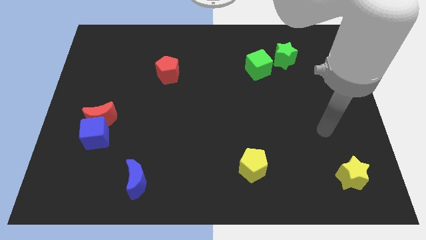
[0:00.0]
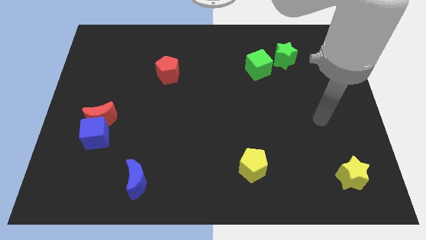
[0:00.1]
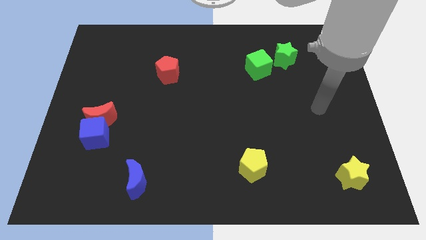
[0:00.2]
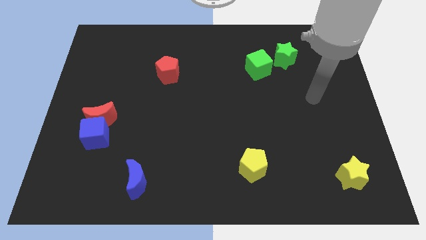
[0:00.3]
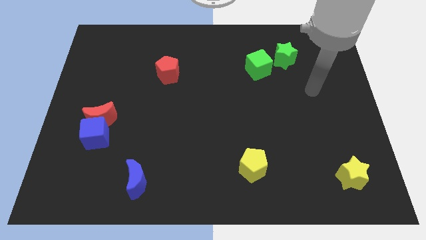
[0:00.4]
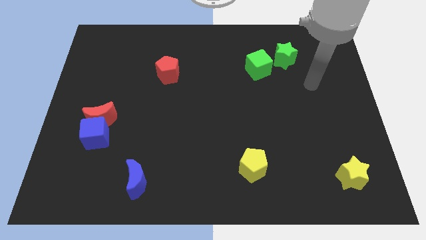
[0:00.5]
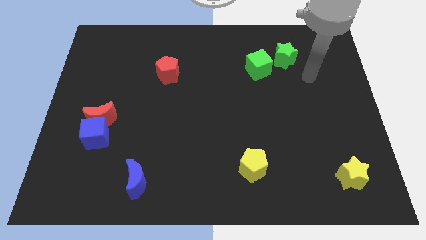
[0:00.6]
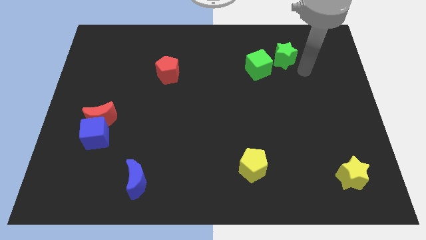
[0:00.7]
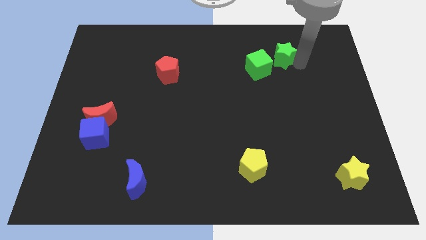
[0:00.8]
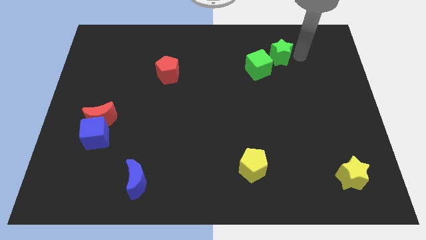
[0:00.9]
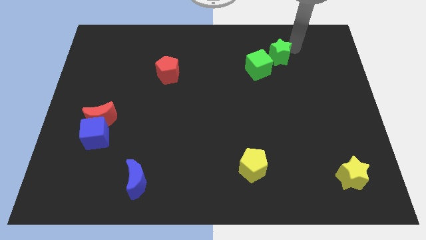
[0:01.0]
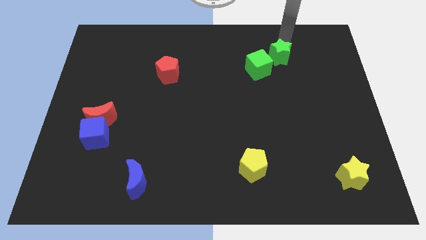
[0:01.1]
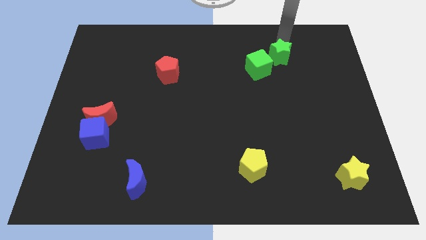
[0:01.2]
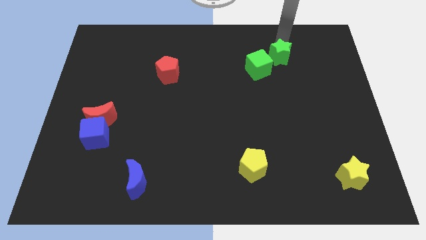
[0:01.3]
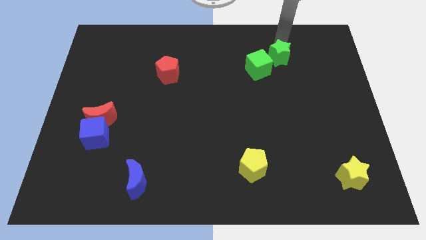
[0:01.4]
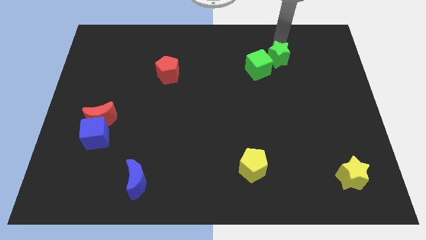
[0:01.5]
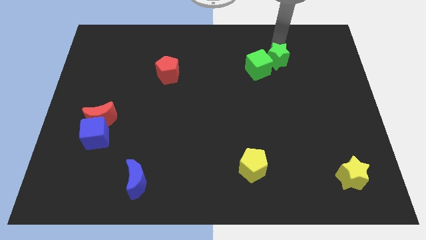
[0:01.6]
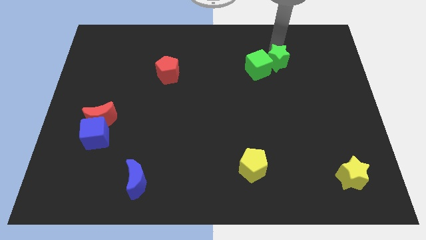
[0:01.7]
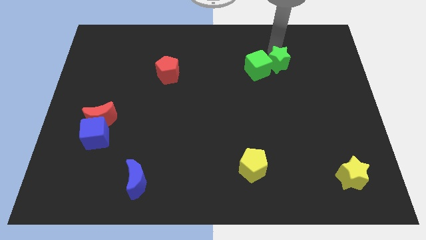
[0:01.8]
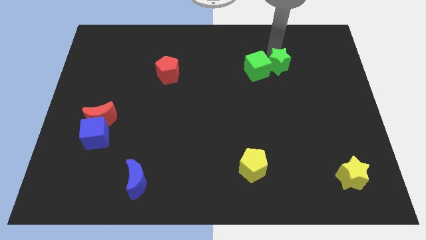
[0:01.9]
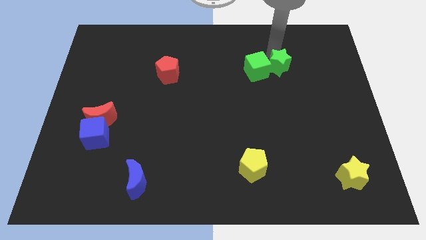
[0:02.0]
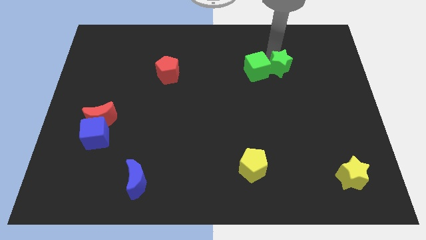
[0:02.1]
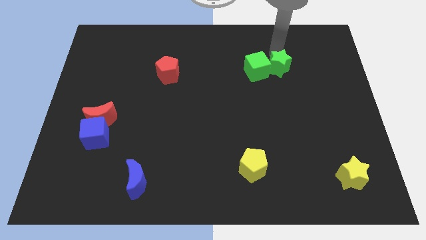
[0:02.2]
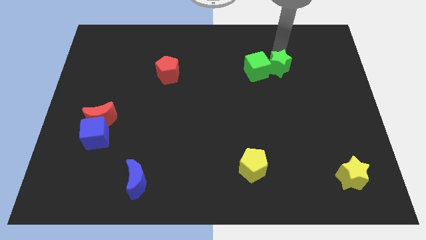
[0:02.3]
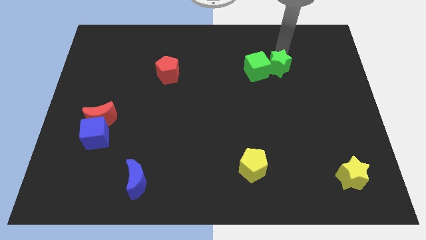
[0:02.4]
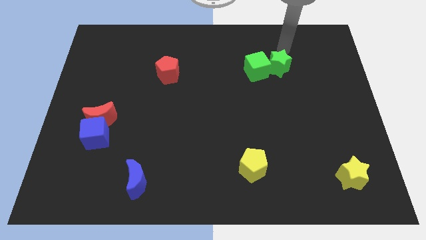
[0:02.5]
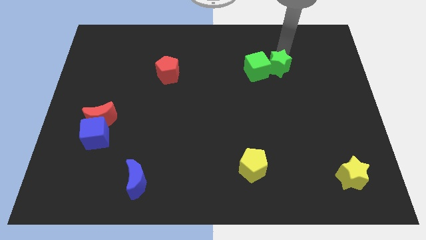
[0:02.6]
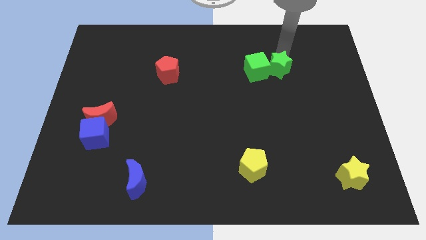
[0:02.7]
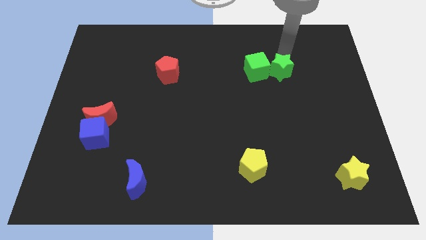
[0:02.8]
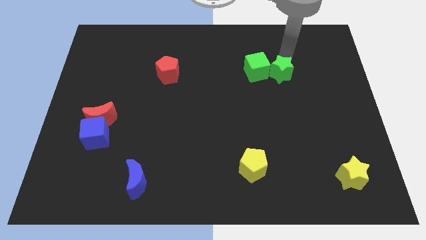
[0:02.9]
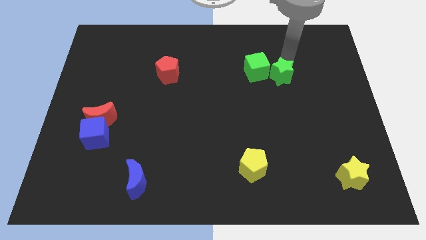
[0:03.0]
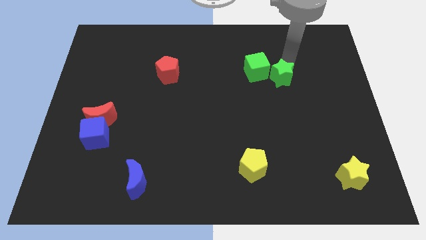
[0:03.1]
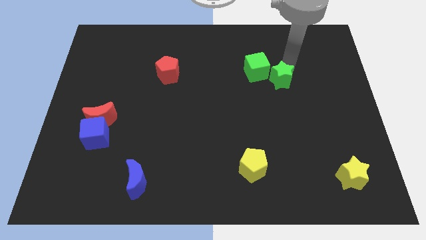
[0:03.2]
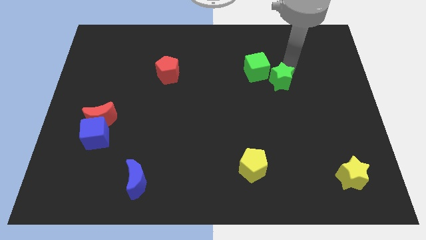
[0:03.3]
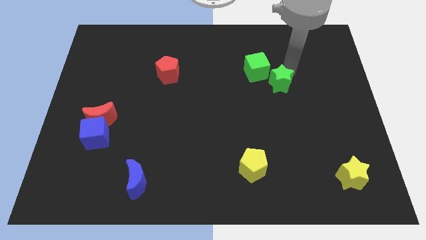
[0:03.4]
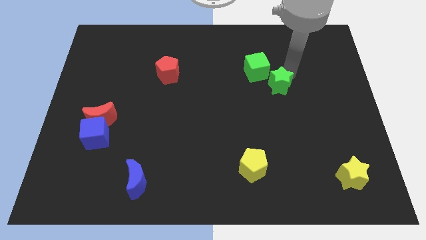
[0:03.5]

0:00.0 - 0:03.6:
push the green star a little diagonally downwards and left

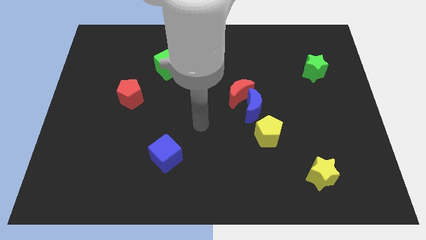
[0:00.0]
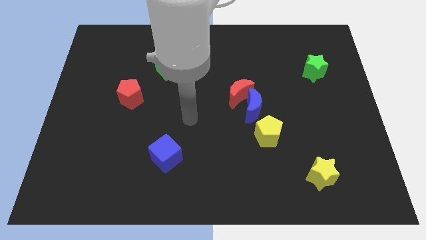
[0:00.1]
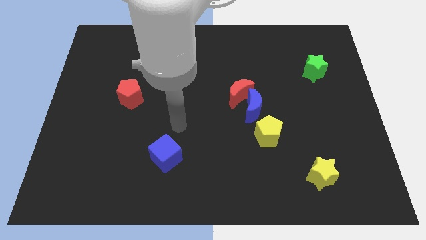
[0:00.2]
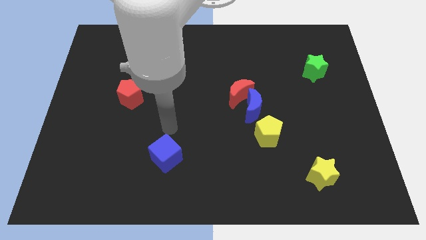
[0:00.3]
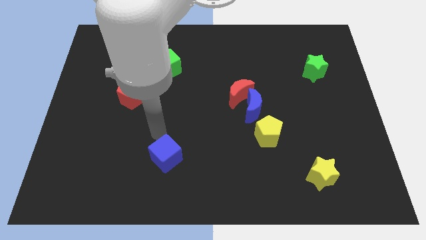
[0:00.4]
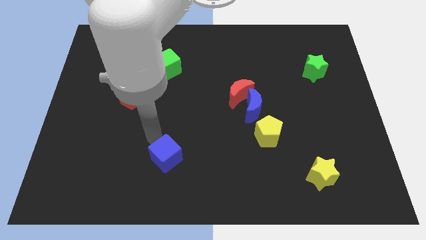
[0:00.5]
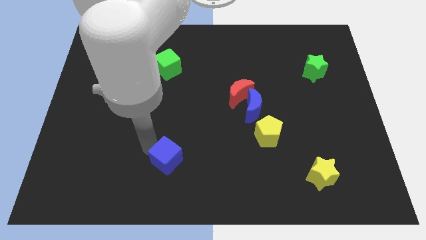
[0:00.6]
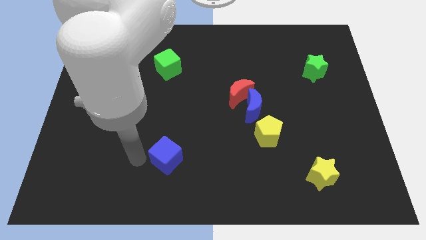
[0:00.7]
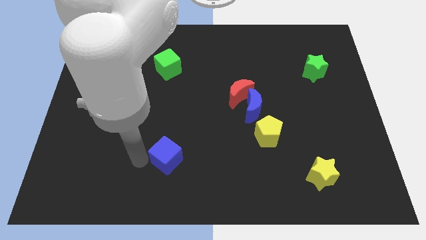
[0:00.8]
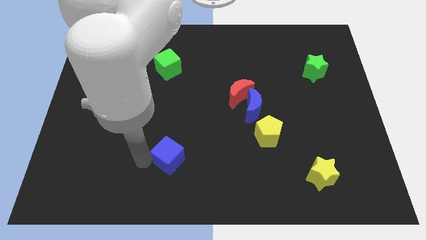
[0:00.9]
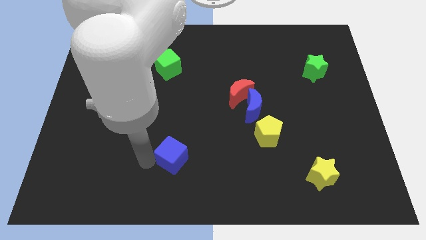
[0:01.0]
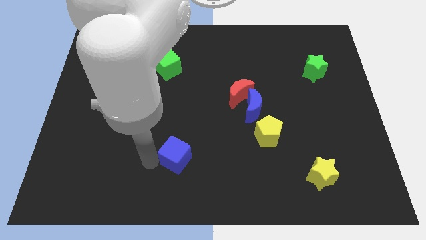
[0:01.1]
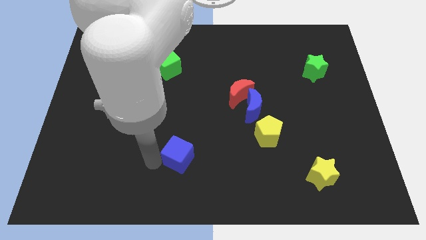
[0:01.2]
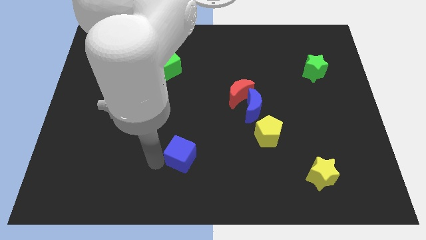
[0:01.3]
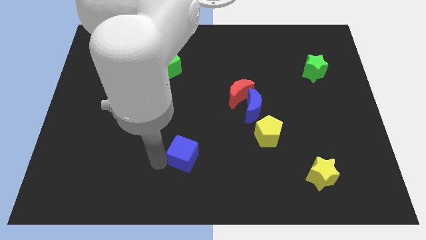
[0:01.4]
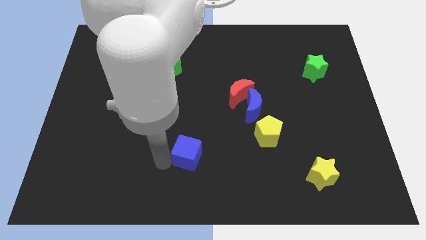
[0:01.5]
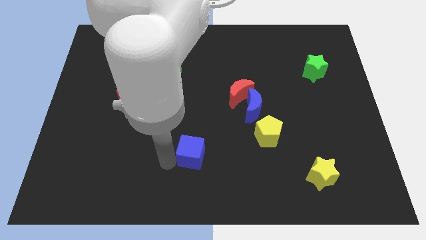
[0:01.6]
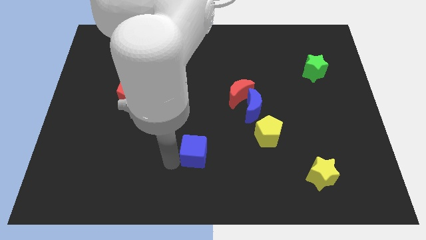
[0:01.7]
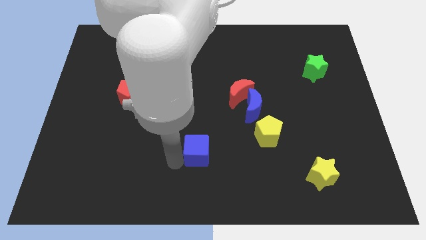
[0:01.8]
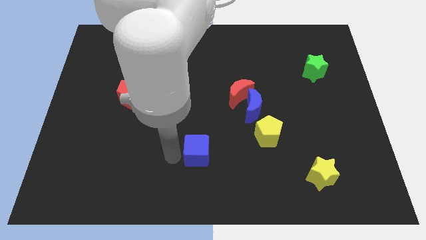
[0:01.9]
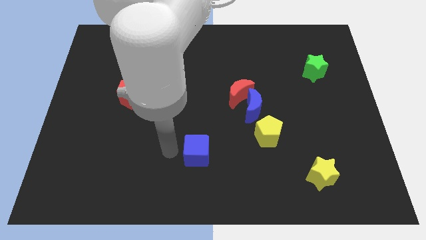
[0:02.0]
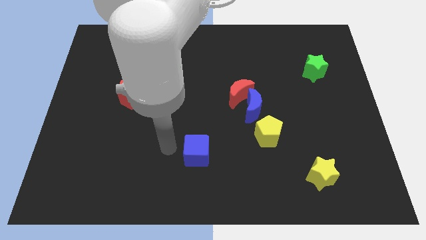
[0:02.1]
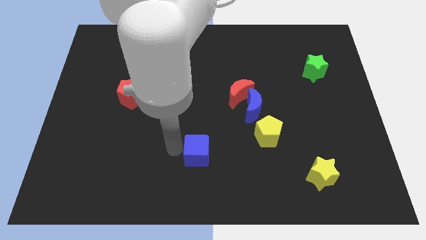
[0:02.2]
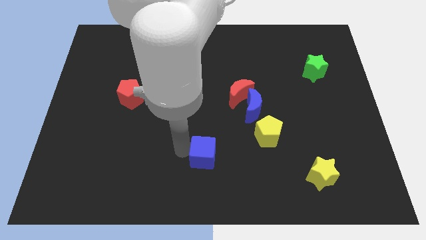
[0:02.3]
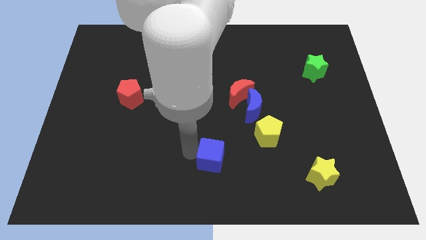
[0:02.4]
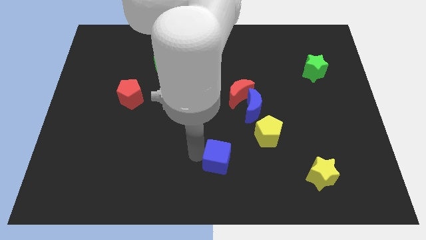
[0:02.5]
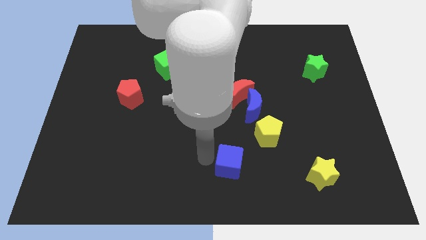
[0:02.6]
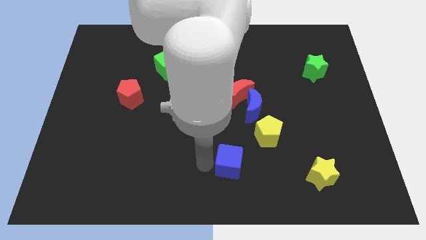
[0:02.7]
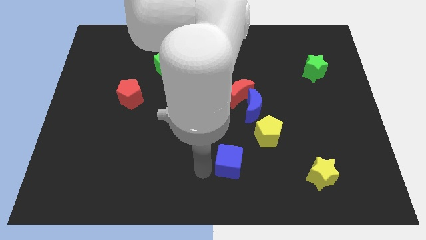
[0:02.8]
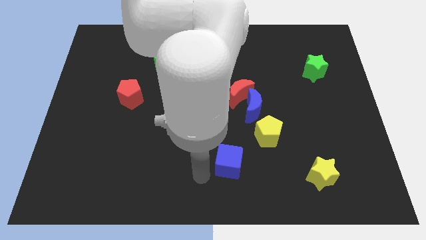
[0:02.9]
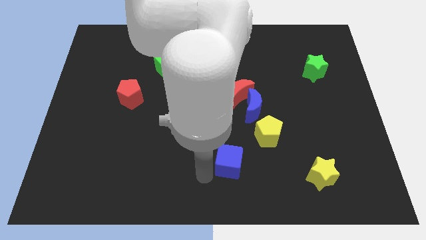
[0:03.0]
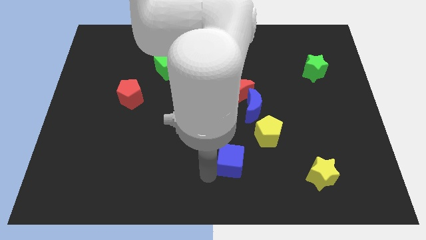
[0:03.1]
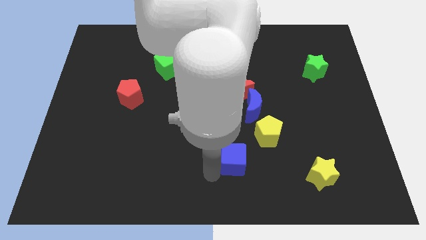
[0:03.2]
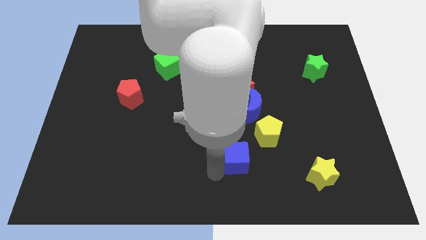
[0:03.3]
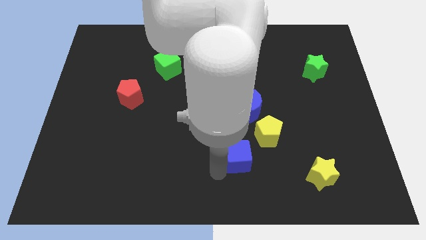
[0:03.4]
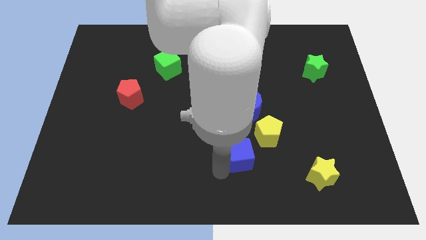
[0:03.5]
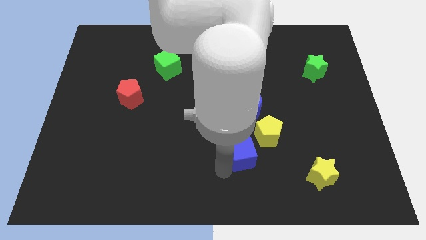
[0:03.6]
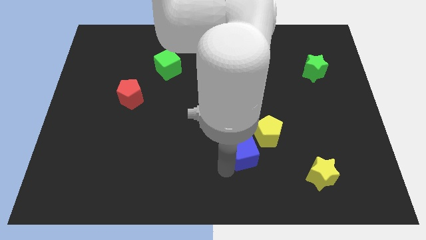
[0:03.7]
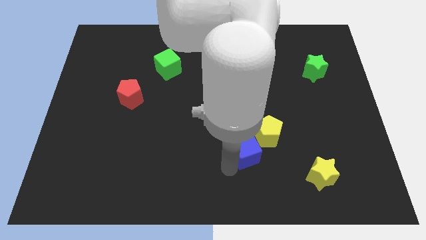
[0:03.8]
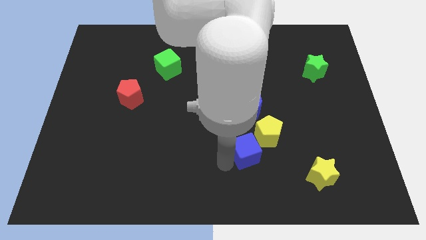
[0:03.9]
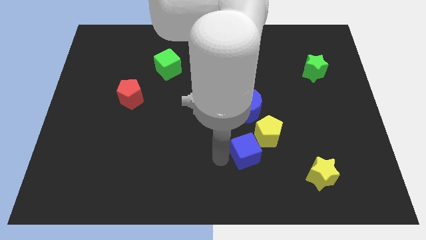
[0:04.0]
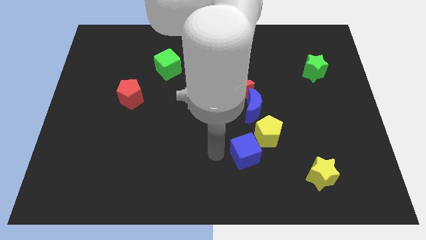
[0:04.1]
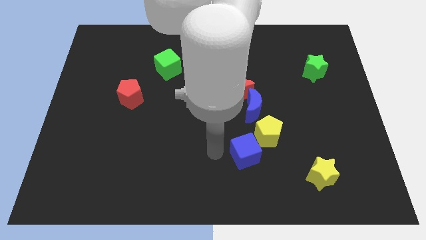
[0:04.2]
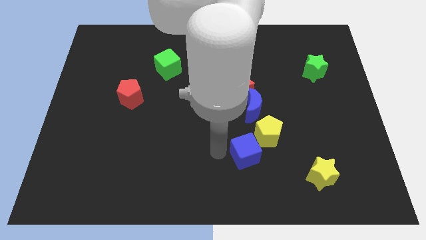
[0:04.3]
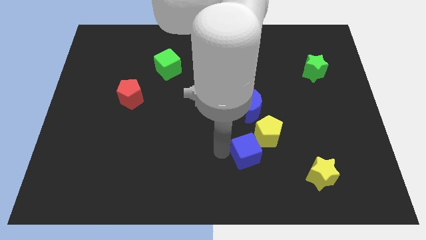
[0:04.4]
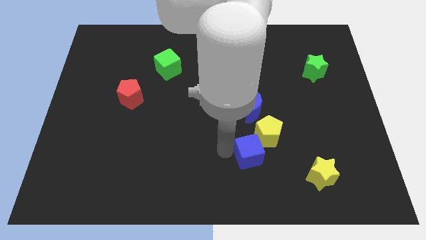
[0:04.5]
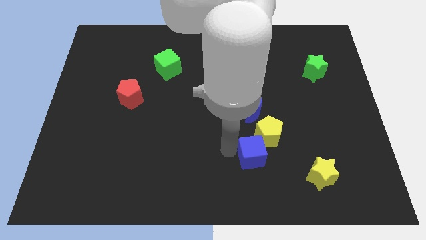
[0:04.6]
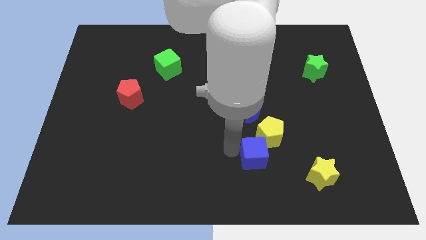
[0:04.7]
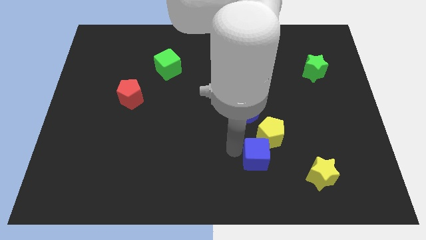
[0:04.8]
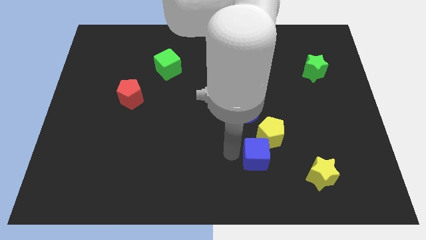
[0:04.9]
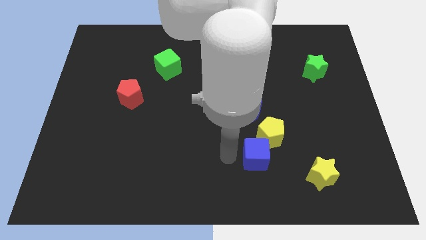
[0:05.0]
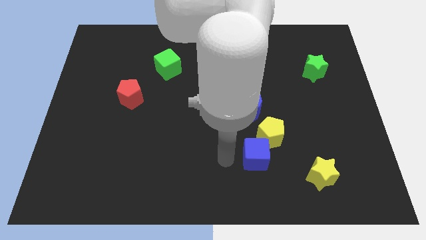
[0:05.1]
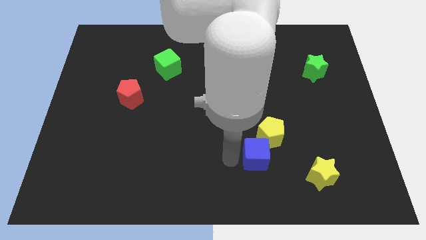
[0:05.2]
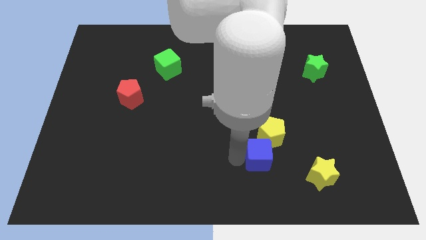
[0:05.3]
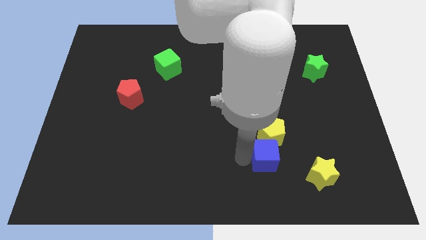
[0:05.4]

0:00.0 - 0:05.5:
move the blue cube to the right
